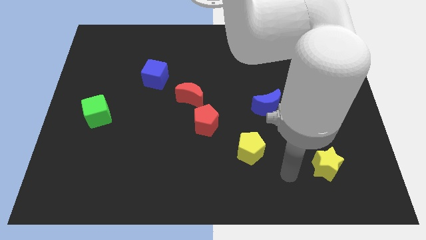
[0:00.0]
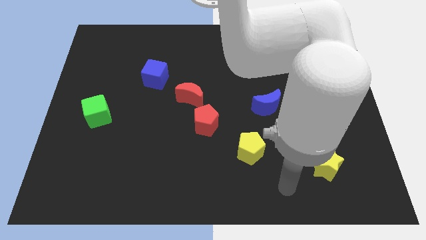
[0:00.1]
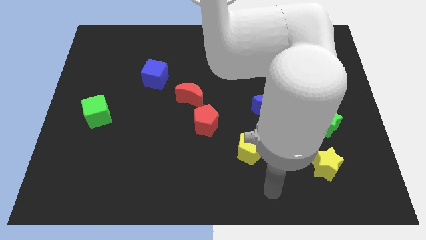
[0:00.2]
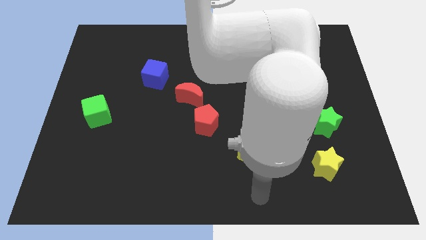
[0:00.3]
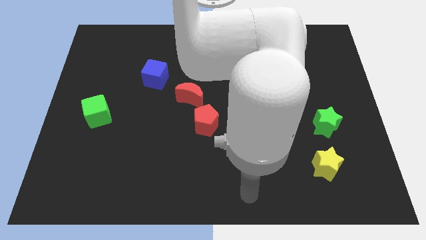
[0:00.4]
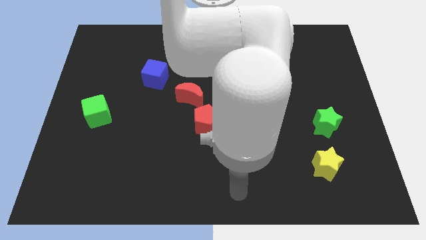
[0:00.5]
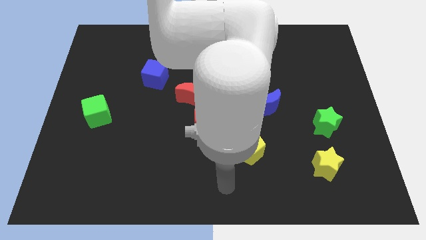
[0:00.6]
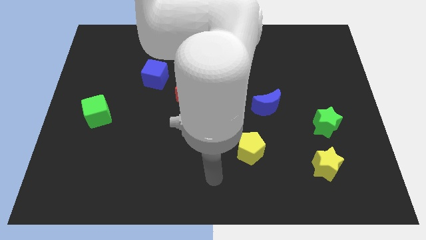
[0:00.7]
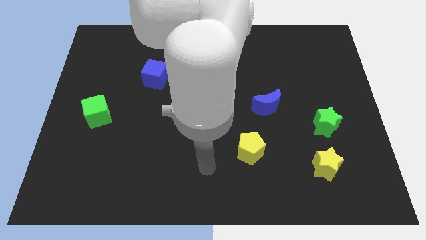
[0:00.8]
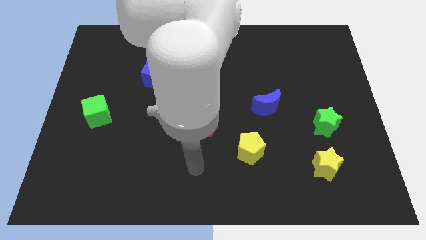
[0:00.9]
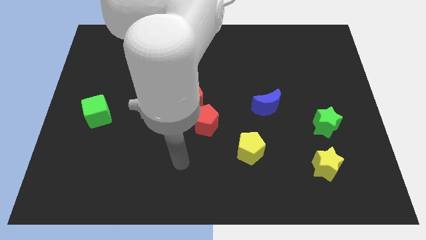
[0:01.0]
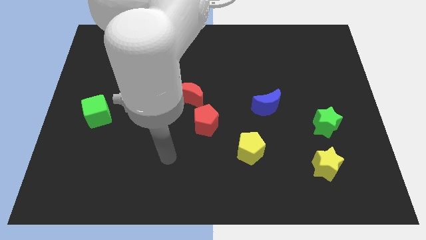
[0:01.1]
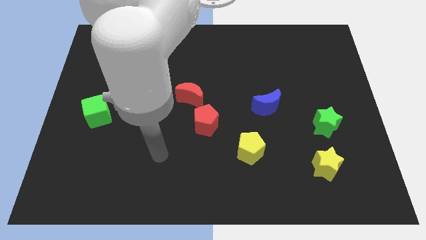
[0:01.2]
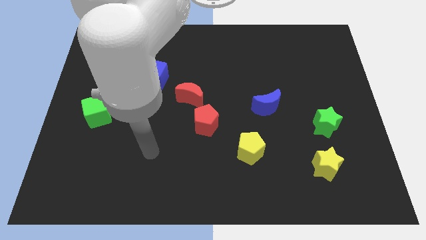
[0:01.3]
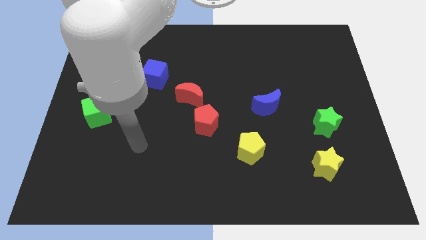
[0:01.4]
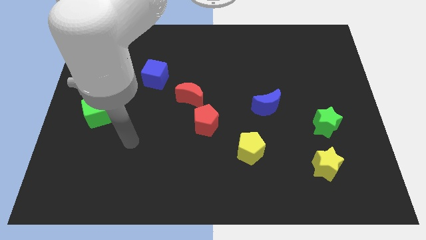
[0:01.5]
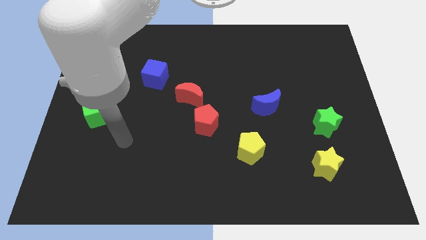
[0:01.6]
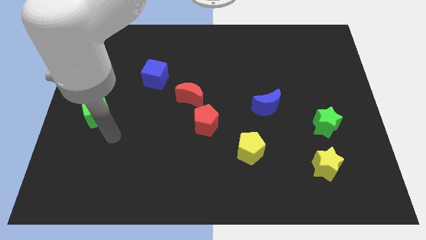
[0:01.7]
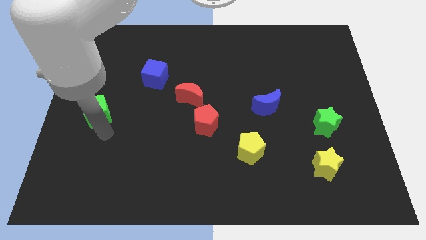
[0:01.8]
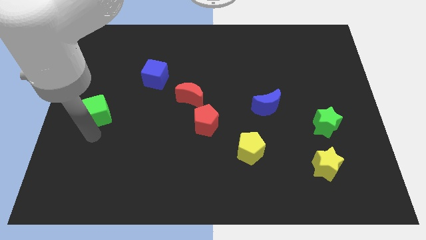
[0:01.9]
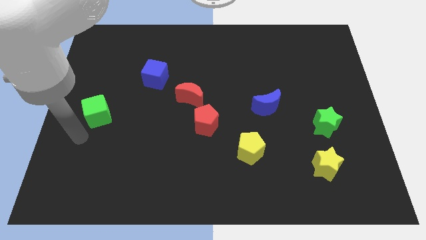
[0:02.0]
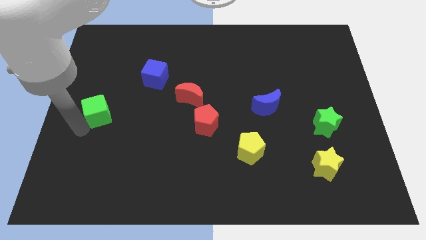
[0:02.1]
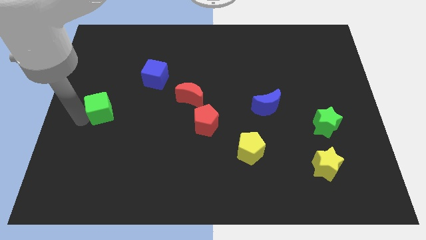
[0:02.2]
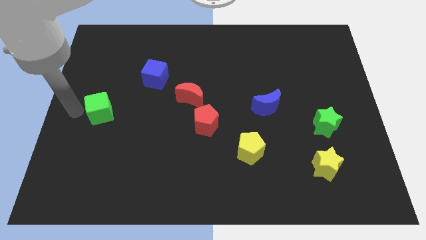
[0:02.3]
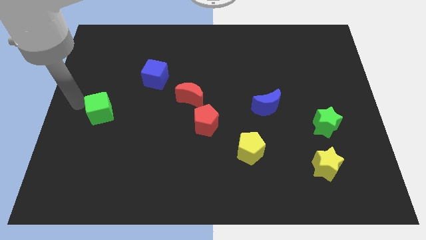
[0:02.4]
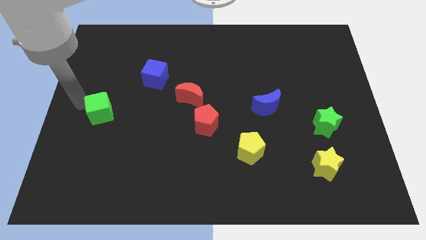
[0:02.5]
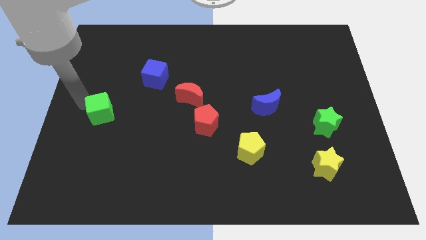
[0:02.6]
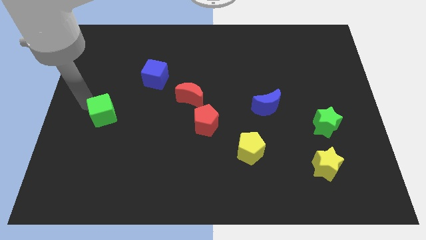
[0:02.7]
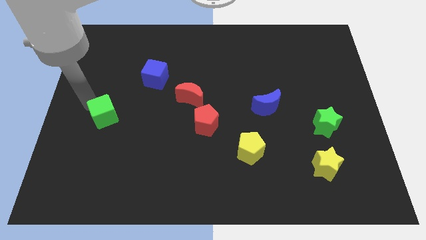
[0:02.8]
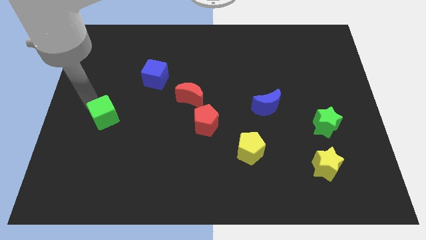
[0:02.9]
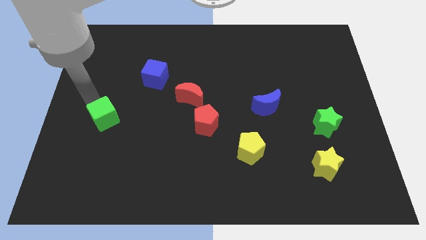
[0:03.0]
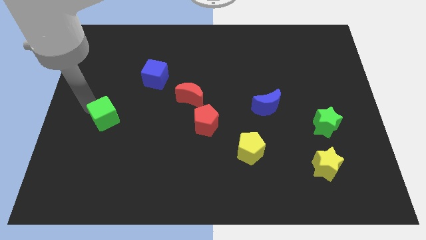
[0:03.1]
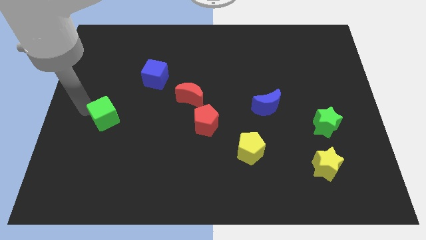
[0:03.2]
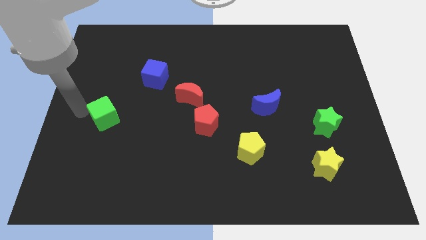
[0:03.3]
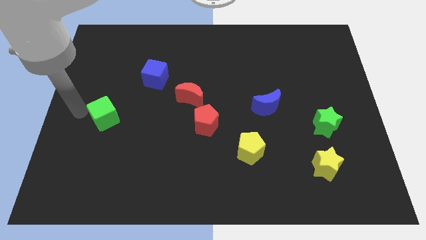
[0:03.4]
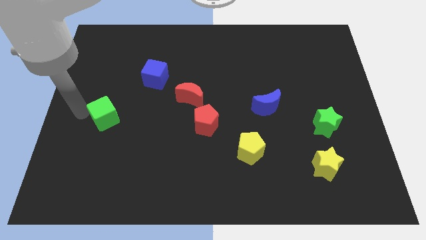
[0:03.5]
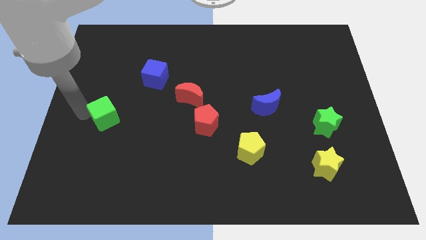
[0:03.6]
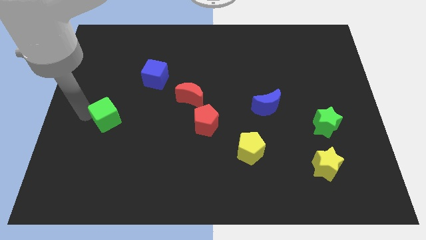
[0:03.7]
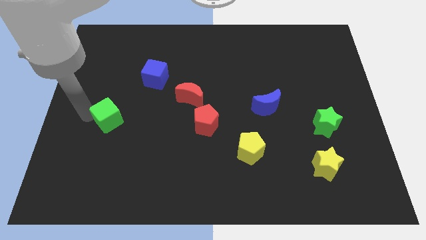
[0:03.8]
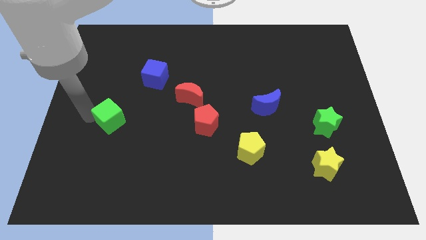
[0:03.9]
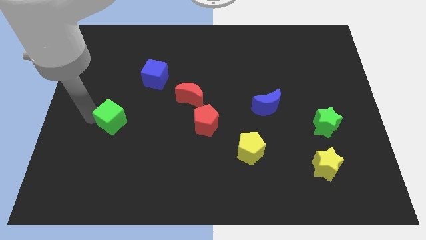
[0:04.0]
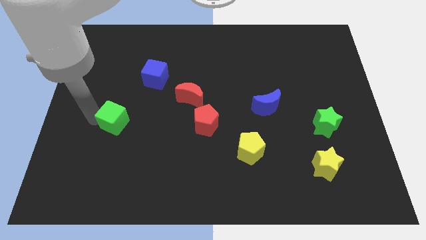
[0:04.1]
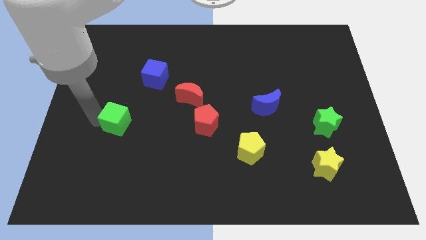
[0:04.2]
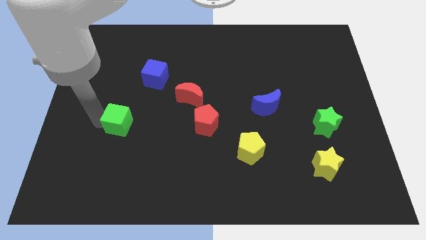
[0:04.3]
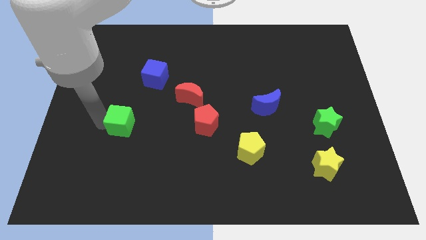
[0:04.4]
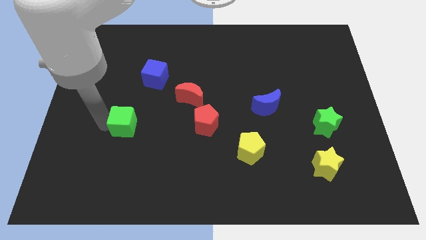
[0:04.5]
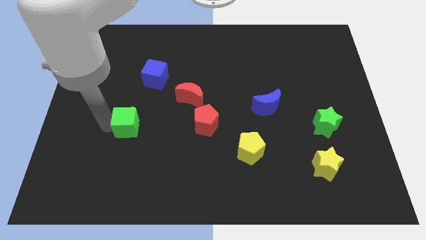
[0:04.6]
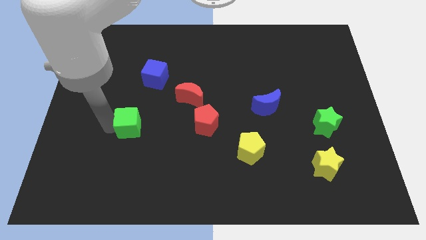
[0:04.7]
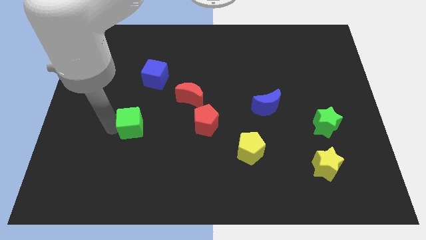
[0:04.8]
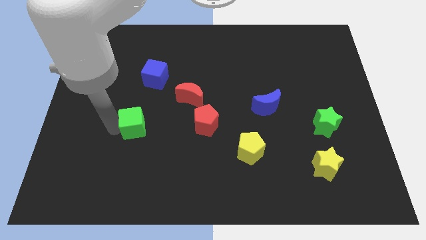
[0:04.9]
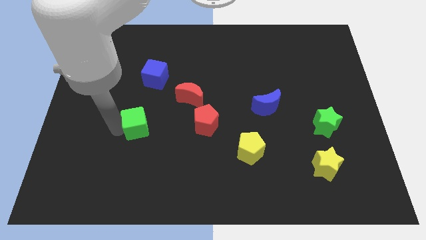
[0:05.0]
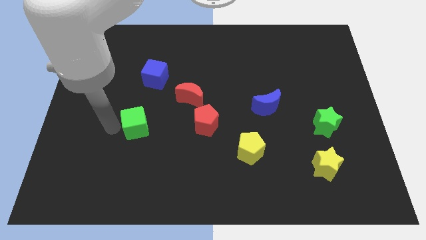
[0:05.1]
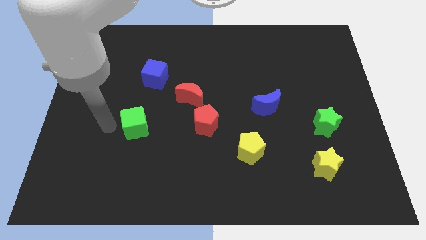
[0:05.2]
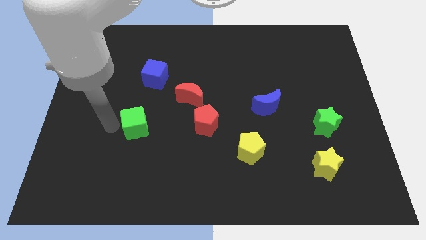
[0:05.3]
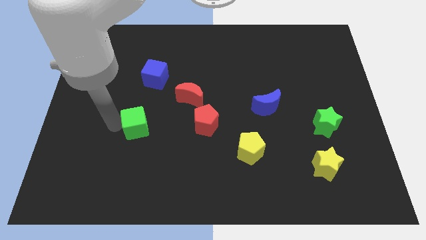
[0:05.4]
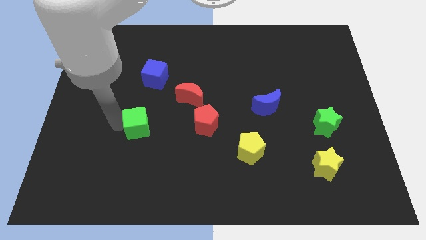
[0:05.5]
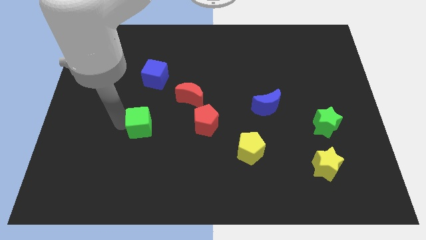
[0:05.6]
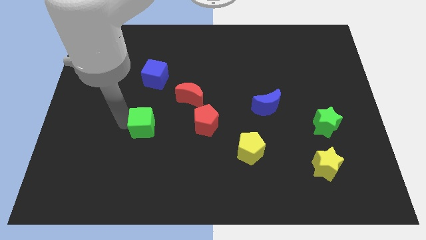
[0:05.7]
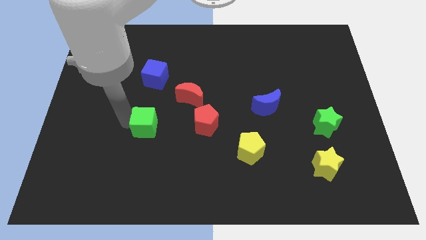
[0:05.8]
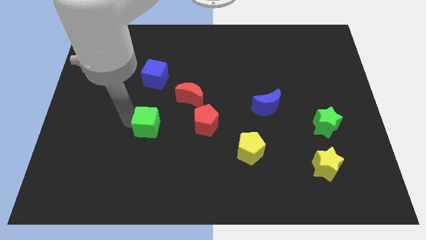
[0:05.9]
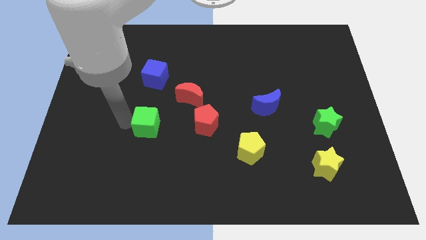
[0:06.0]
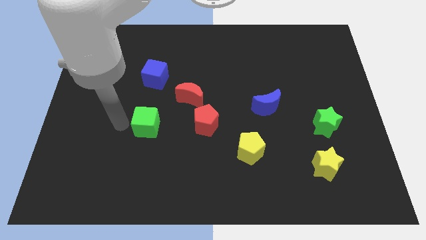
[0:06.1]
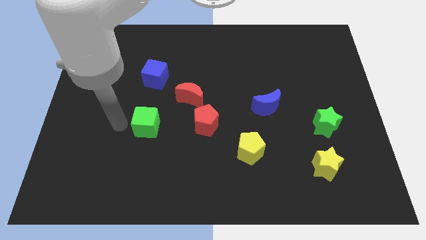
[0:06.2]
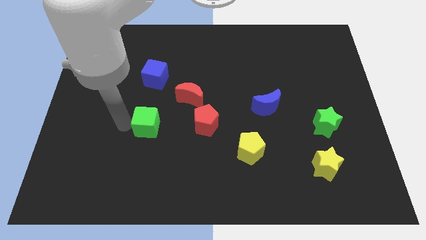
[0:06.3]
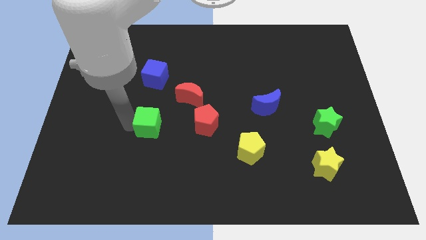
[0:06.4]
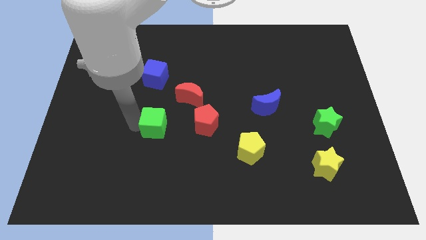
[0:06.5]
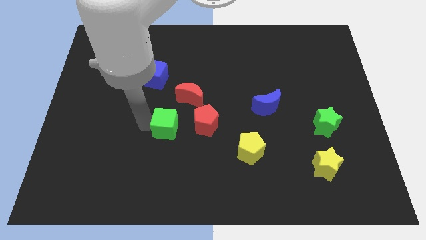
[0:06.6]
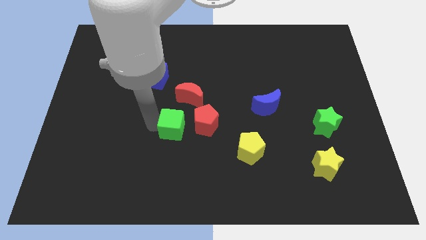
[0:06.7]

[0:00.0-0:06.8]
put the green cube to the bottom of the red moon

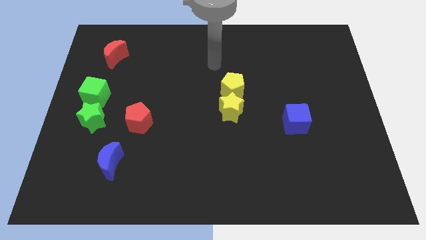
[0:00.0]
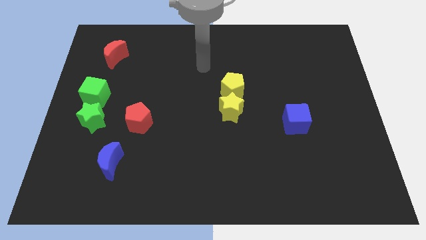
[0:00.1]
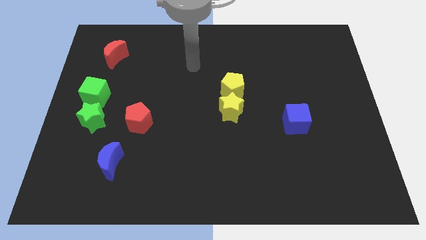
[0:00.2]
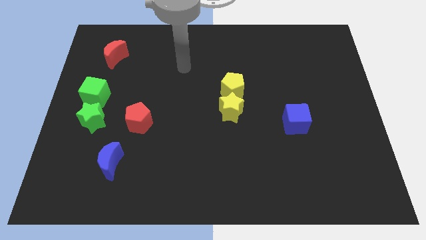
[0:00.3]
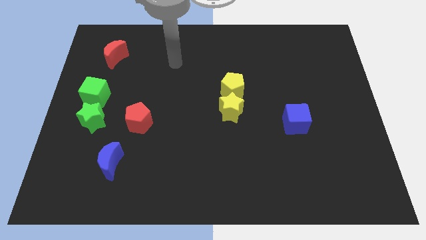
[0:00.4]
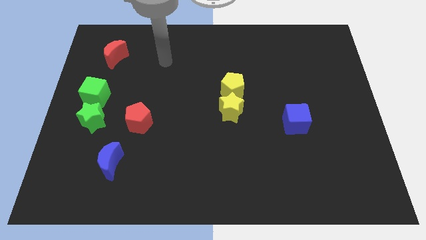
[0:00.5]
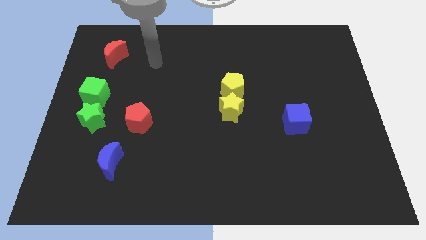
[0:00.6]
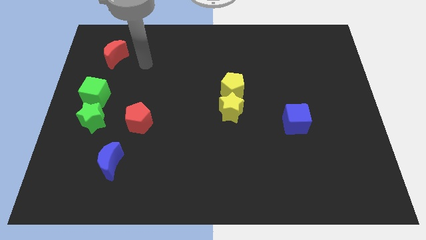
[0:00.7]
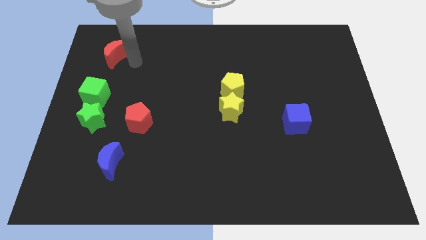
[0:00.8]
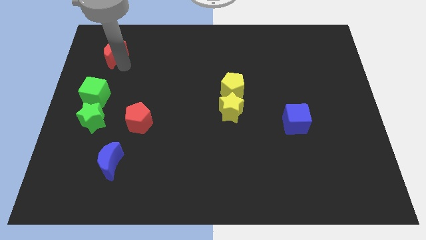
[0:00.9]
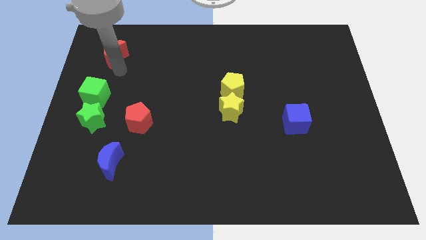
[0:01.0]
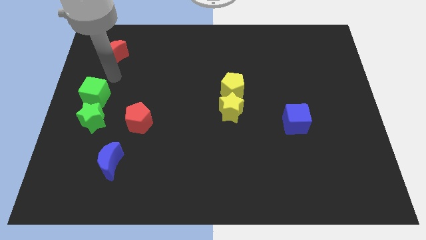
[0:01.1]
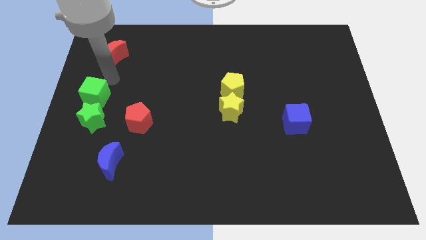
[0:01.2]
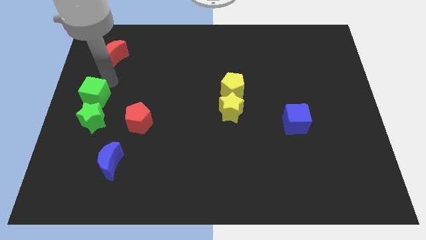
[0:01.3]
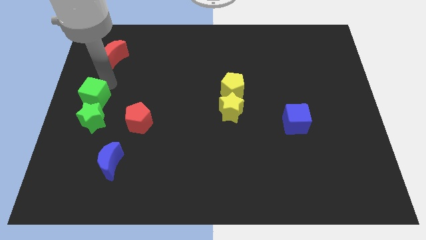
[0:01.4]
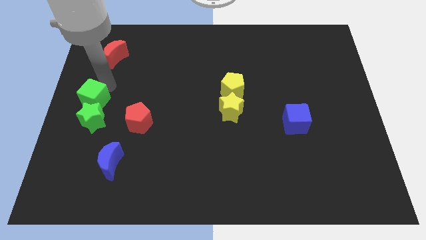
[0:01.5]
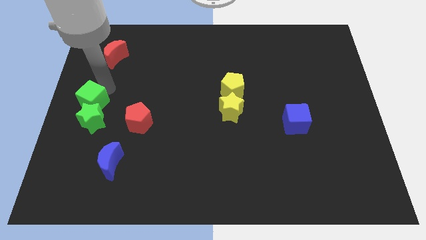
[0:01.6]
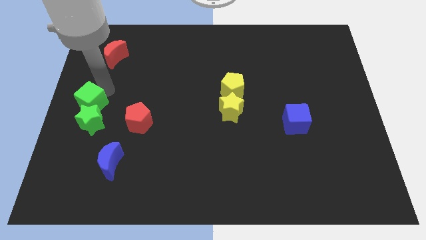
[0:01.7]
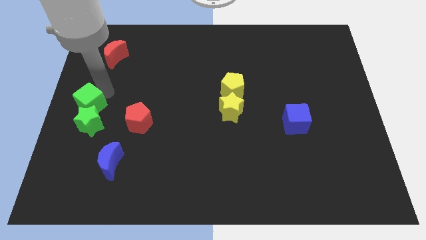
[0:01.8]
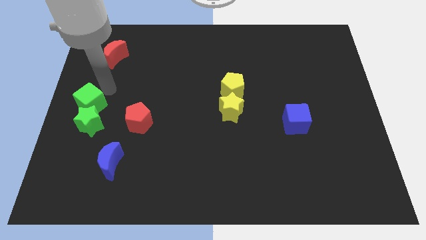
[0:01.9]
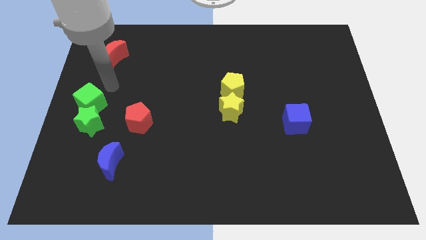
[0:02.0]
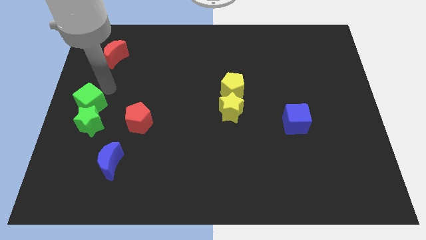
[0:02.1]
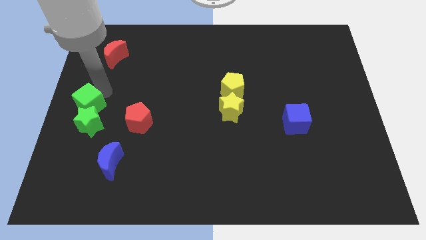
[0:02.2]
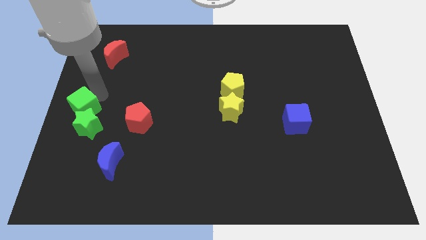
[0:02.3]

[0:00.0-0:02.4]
push the green cube left of the red pentagon
